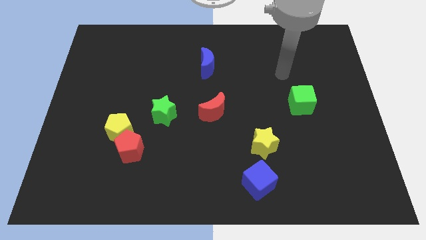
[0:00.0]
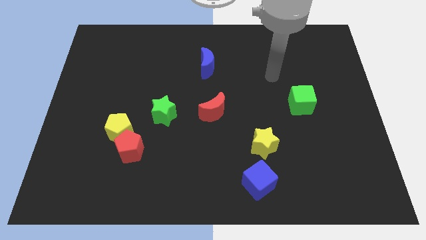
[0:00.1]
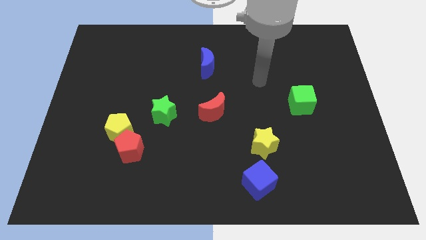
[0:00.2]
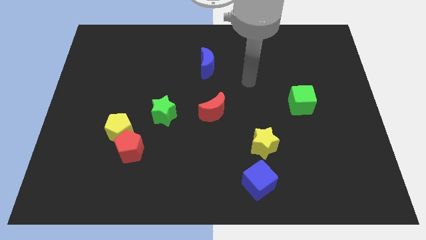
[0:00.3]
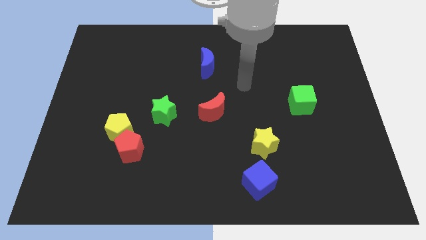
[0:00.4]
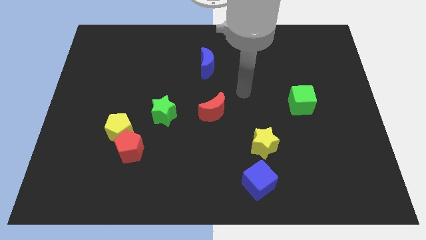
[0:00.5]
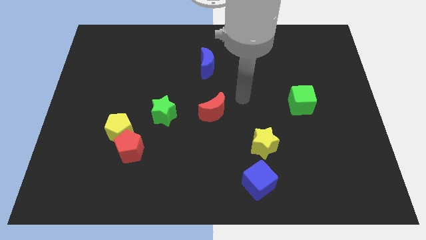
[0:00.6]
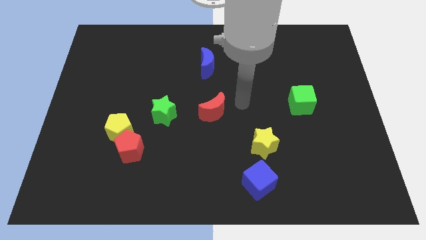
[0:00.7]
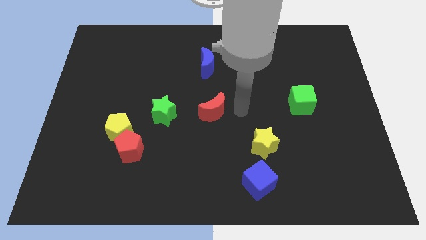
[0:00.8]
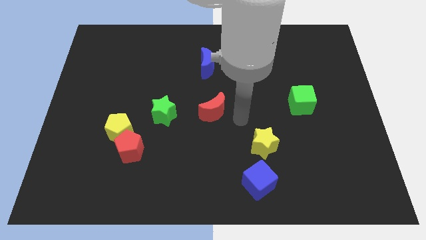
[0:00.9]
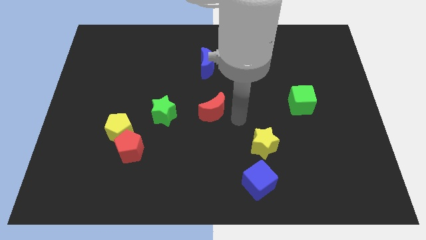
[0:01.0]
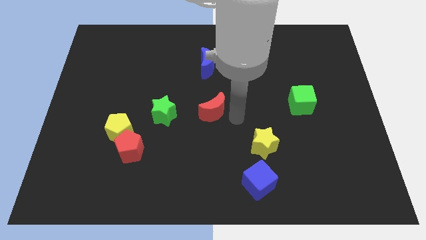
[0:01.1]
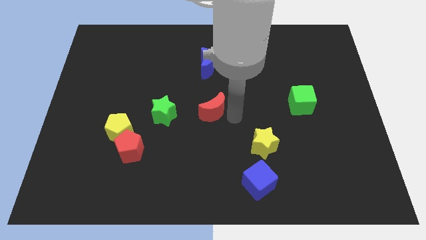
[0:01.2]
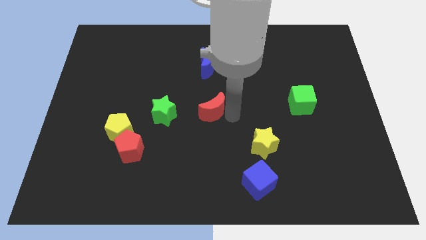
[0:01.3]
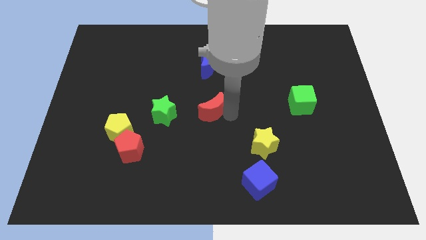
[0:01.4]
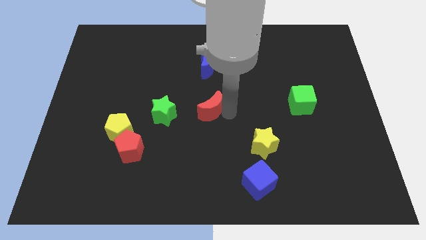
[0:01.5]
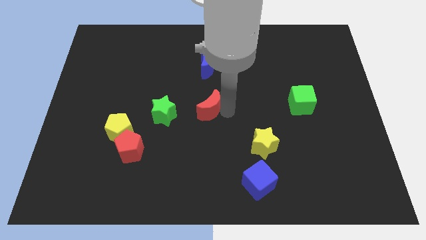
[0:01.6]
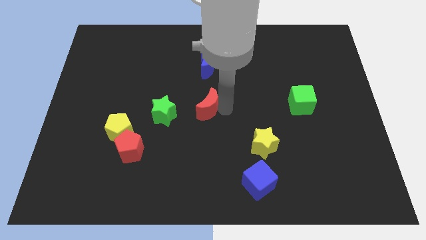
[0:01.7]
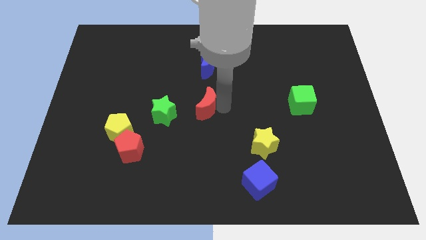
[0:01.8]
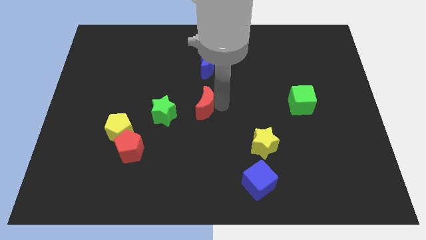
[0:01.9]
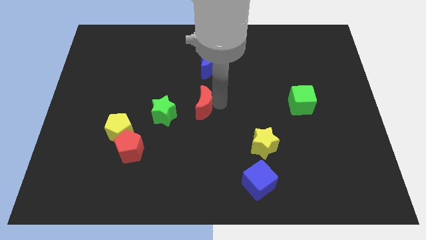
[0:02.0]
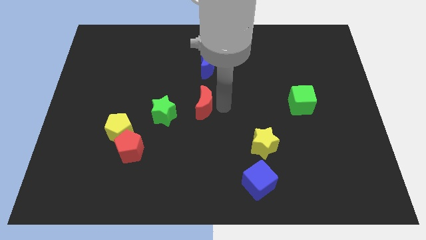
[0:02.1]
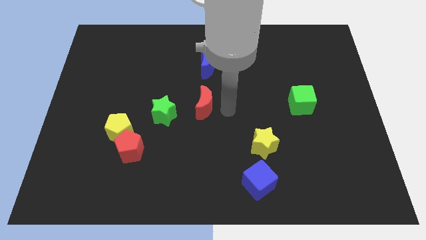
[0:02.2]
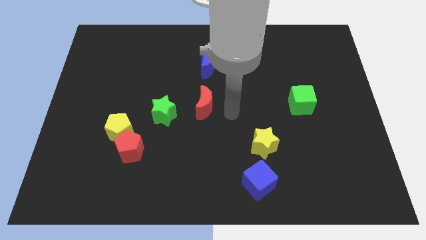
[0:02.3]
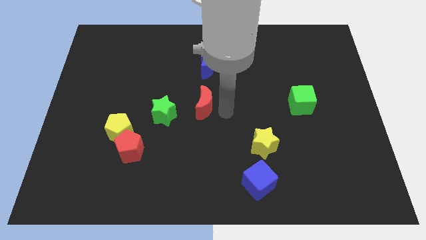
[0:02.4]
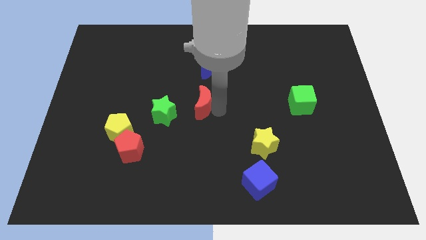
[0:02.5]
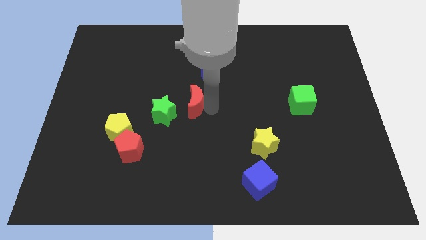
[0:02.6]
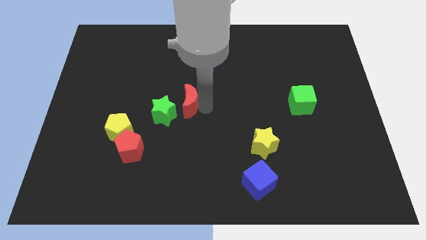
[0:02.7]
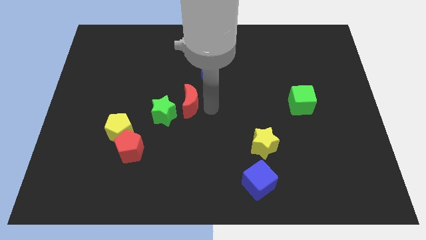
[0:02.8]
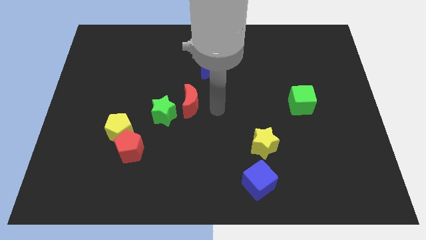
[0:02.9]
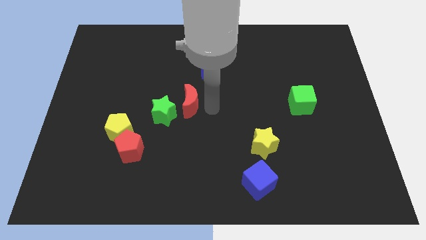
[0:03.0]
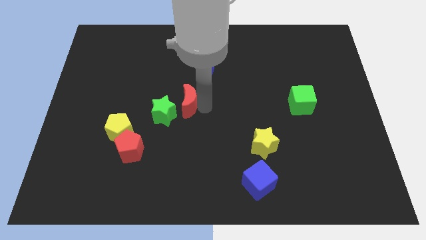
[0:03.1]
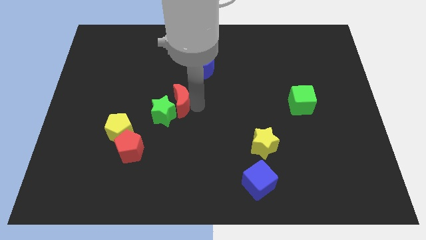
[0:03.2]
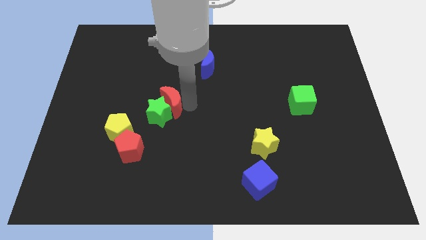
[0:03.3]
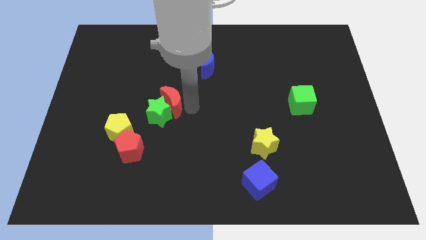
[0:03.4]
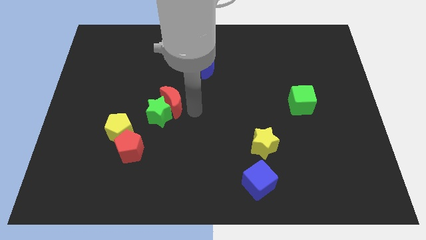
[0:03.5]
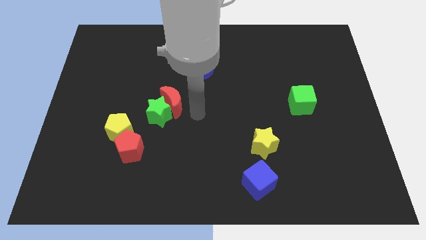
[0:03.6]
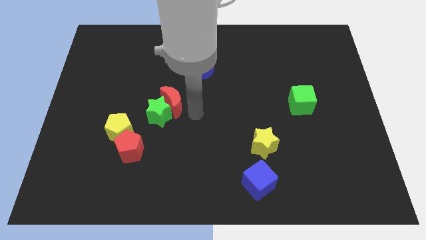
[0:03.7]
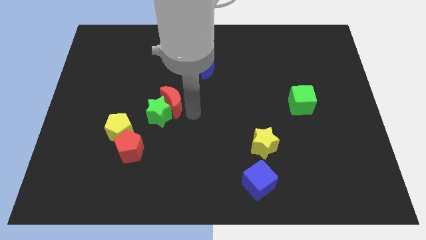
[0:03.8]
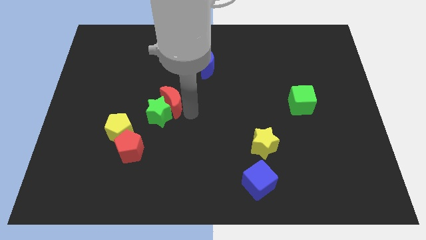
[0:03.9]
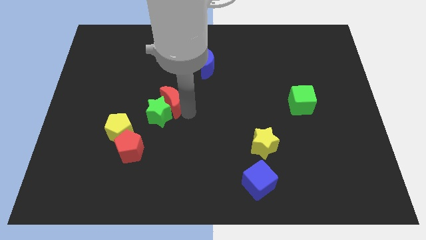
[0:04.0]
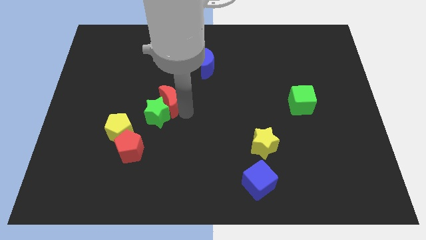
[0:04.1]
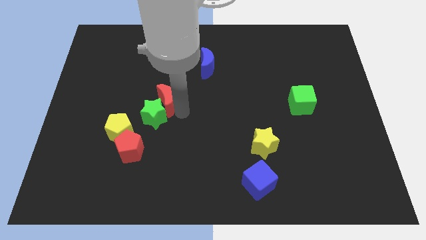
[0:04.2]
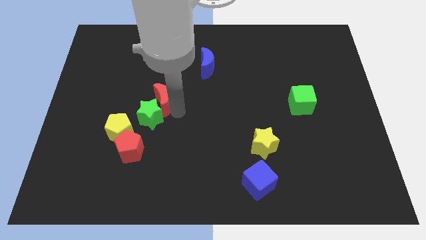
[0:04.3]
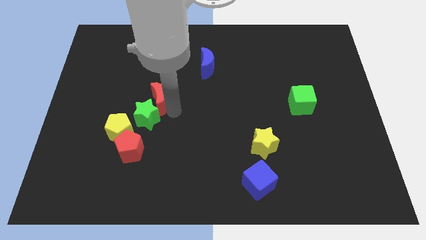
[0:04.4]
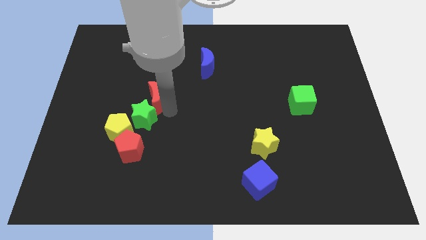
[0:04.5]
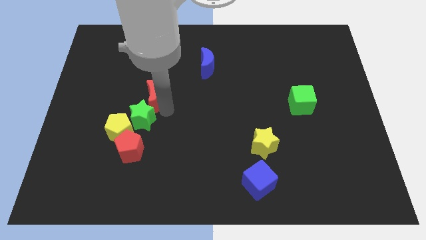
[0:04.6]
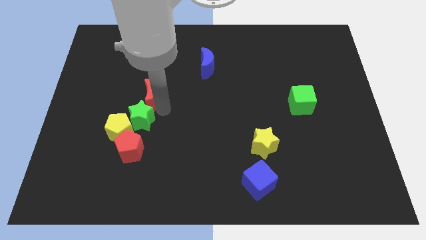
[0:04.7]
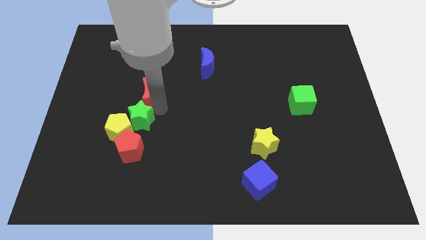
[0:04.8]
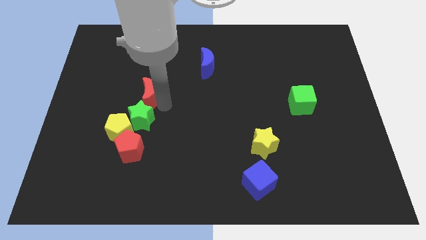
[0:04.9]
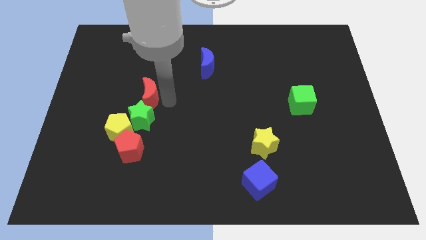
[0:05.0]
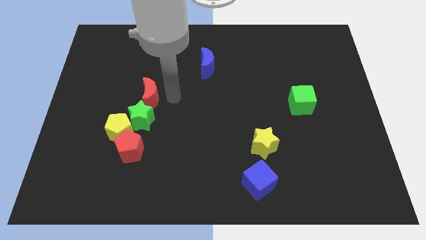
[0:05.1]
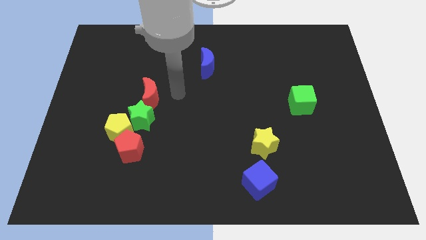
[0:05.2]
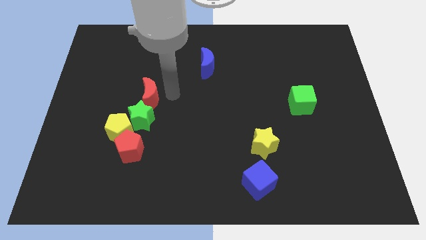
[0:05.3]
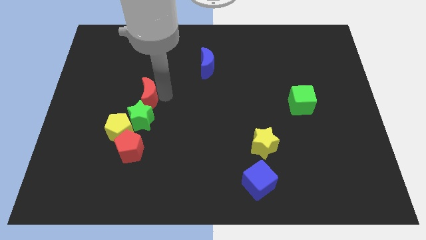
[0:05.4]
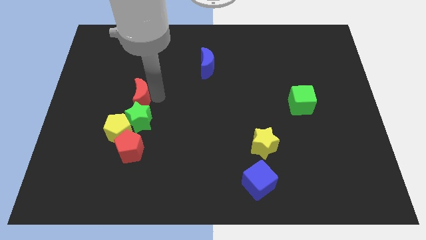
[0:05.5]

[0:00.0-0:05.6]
push the red moon to the top left side of the green star

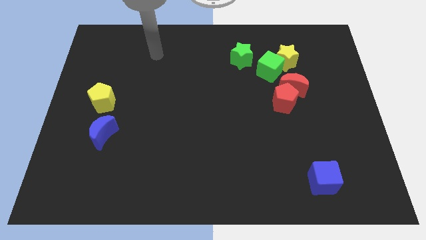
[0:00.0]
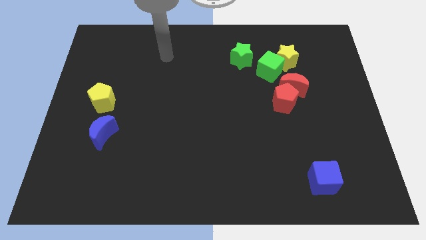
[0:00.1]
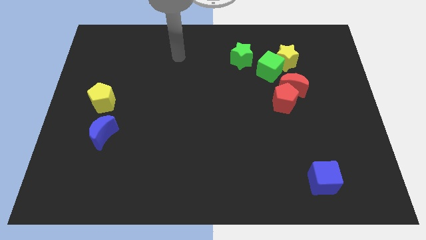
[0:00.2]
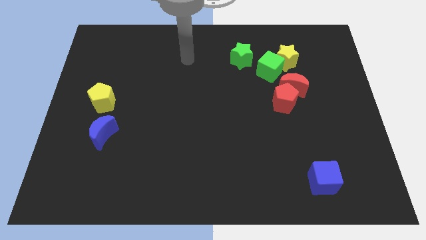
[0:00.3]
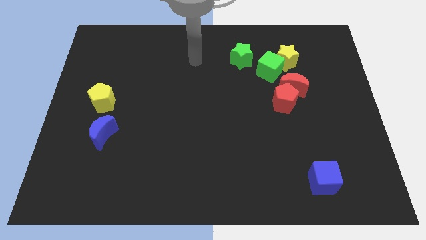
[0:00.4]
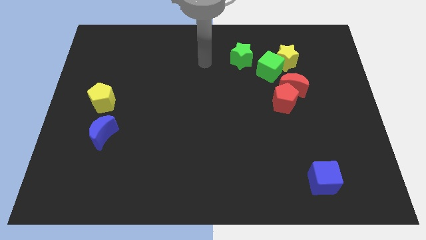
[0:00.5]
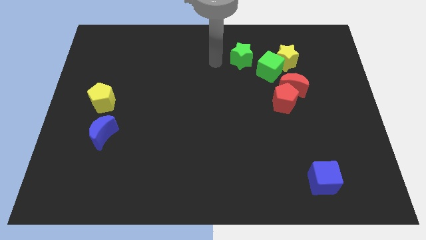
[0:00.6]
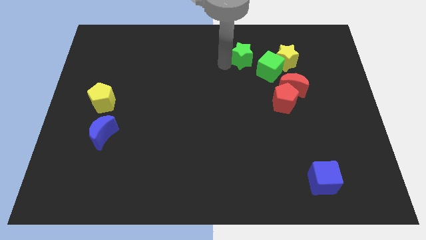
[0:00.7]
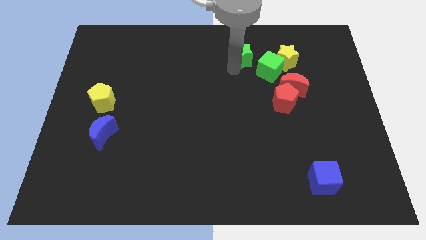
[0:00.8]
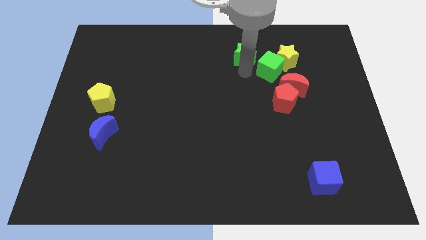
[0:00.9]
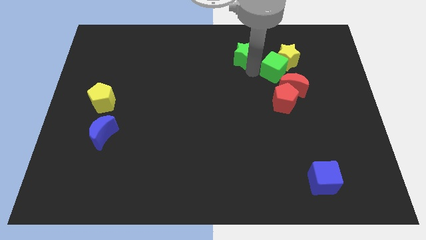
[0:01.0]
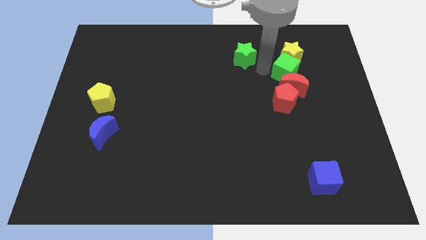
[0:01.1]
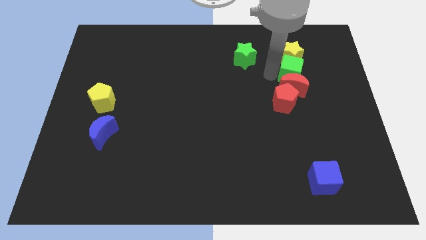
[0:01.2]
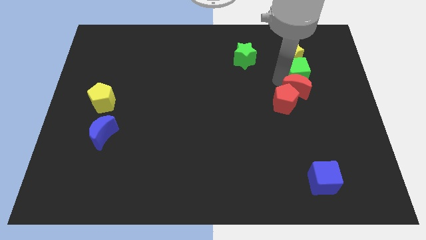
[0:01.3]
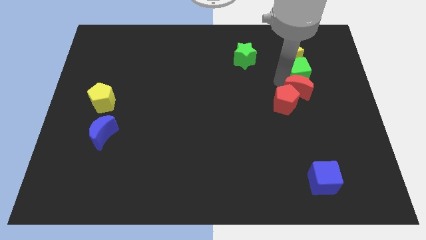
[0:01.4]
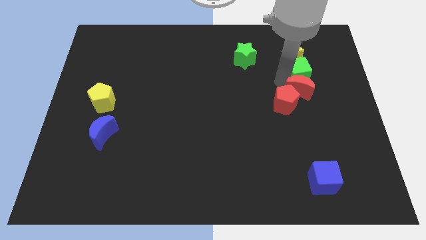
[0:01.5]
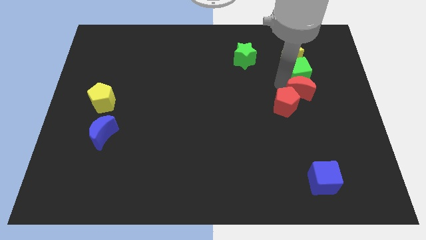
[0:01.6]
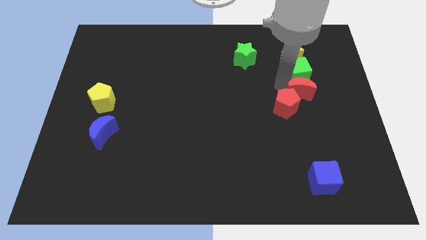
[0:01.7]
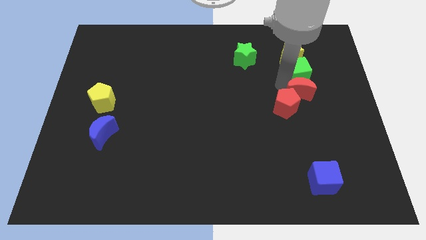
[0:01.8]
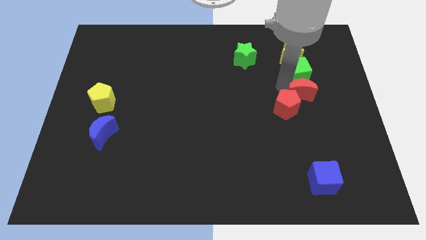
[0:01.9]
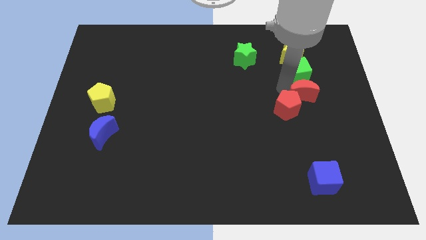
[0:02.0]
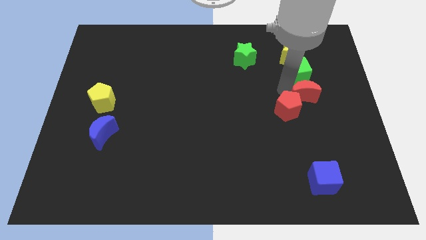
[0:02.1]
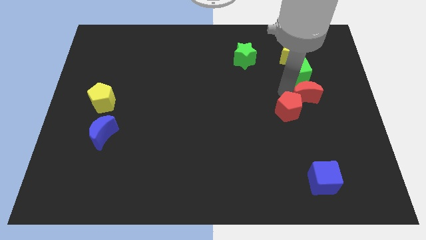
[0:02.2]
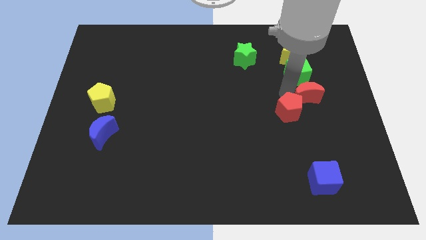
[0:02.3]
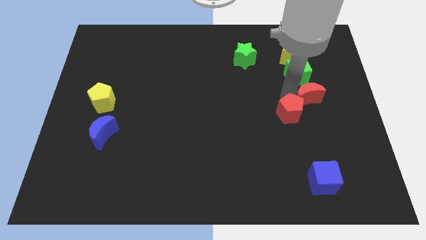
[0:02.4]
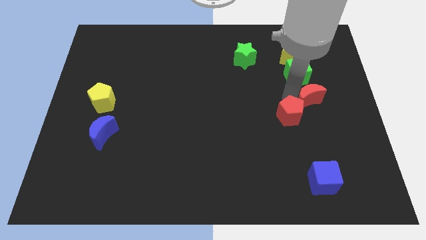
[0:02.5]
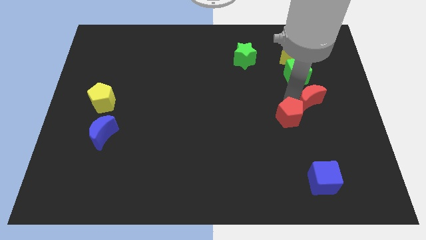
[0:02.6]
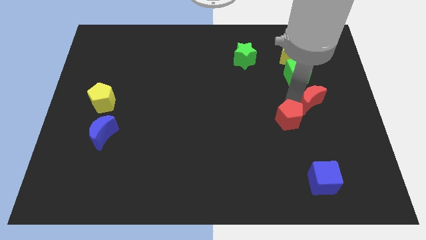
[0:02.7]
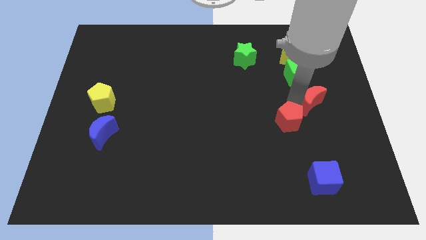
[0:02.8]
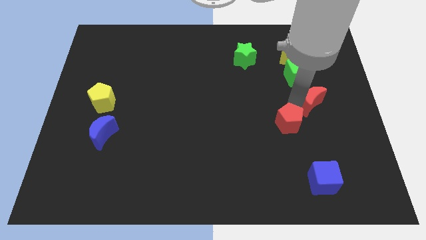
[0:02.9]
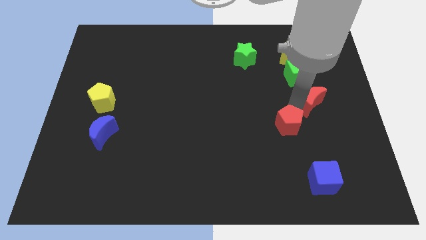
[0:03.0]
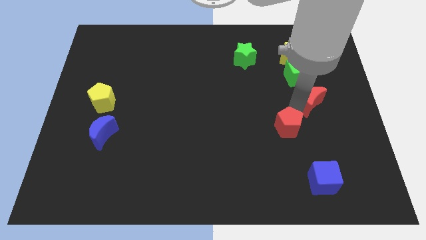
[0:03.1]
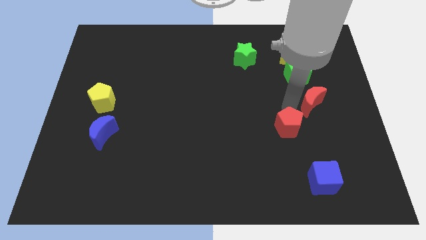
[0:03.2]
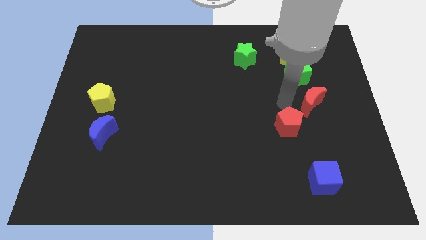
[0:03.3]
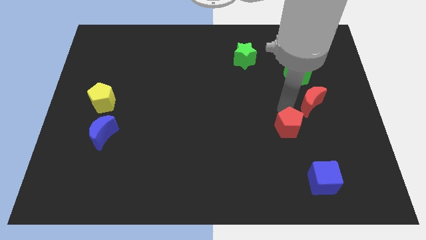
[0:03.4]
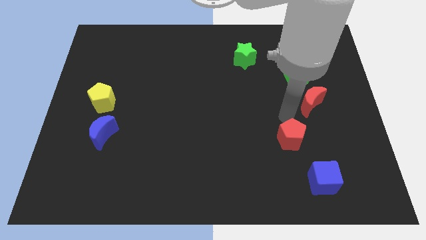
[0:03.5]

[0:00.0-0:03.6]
put the red pentagon to the top left side of the blue cube
